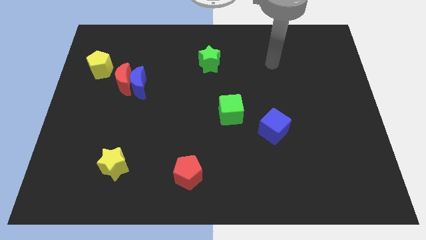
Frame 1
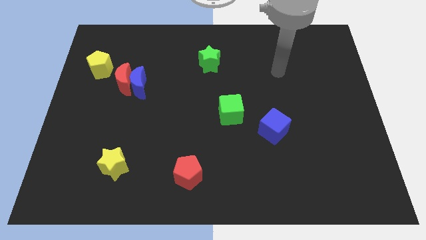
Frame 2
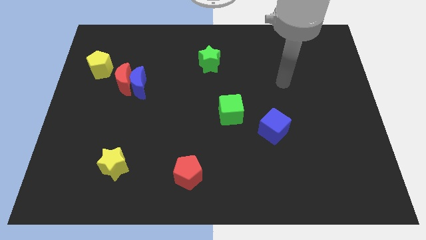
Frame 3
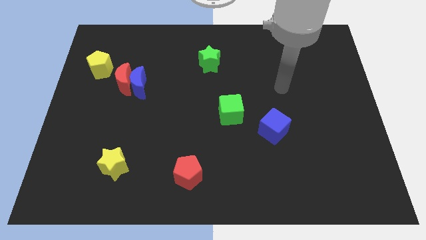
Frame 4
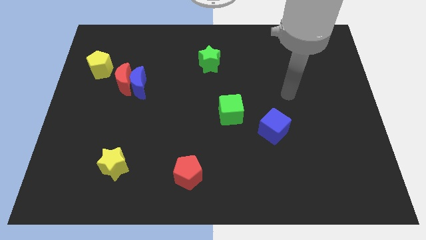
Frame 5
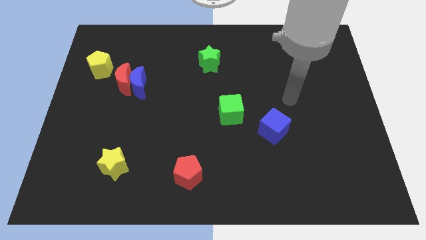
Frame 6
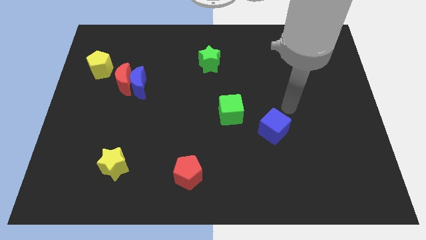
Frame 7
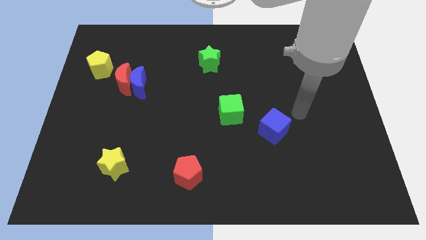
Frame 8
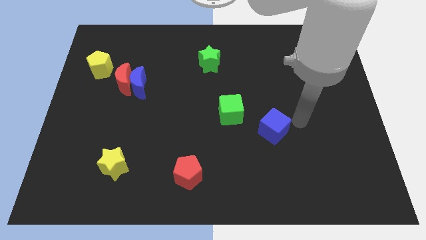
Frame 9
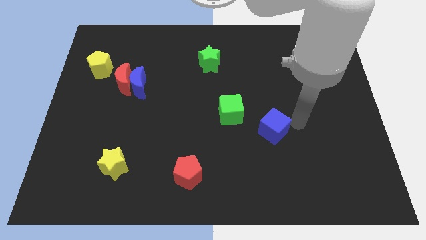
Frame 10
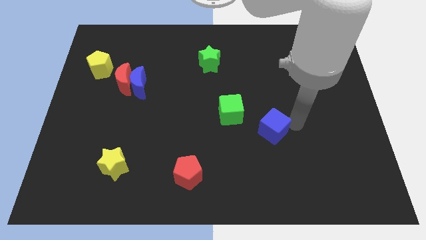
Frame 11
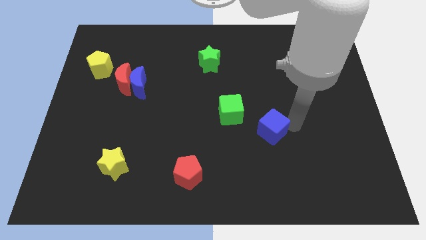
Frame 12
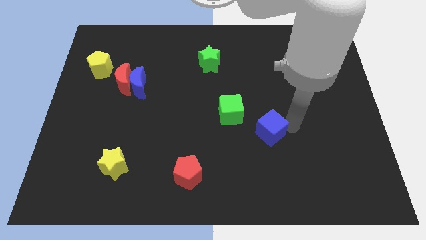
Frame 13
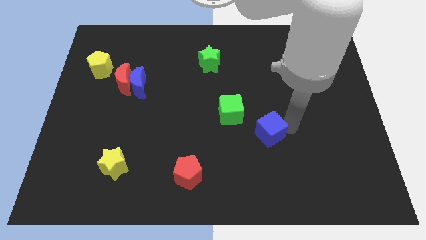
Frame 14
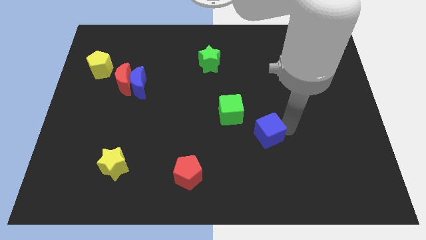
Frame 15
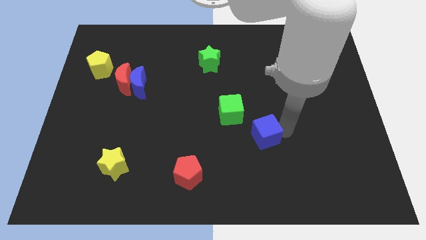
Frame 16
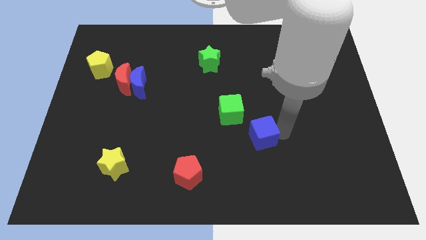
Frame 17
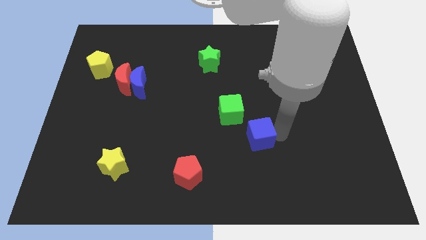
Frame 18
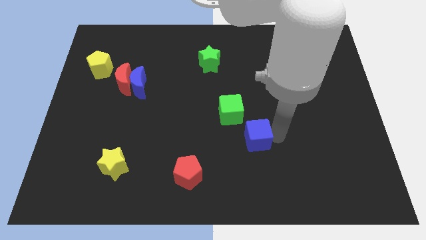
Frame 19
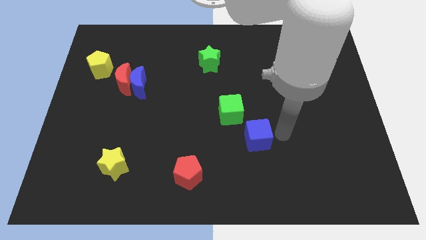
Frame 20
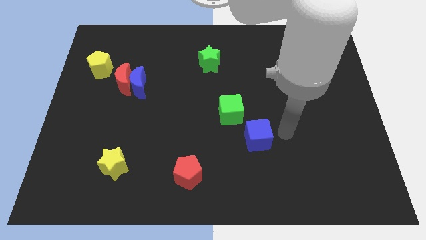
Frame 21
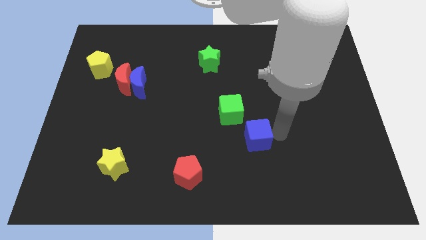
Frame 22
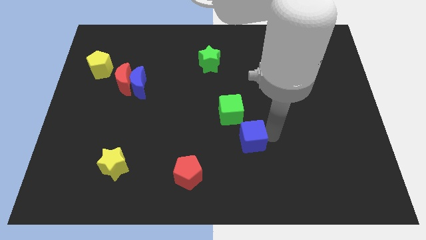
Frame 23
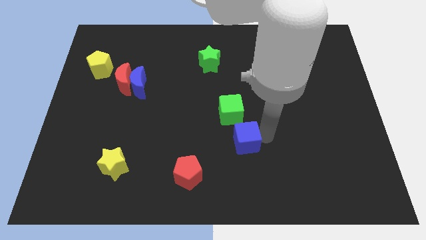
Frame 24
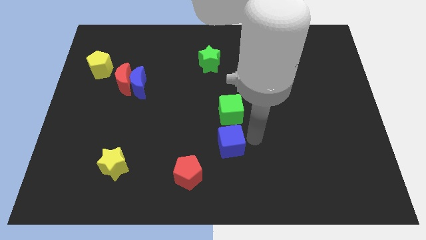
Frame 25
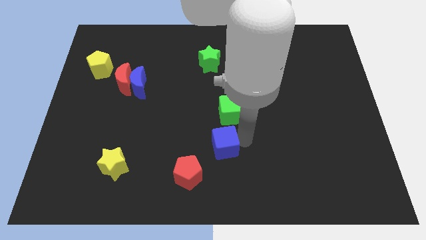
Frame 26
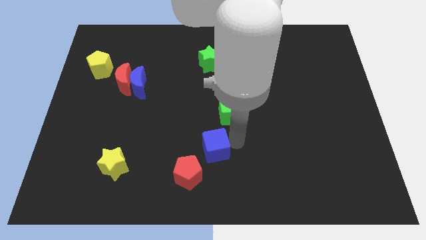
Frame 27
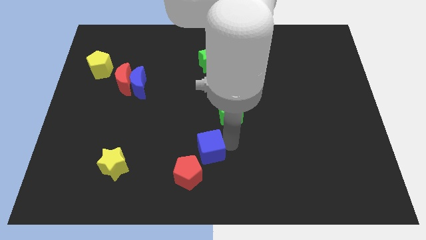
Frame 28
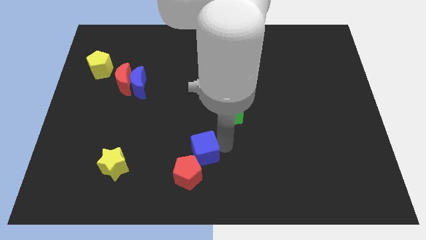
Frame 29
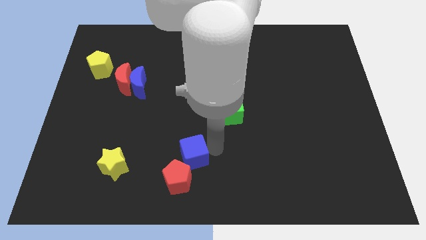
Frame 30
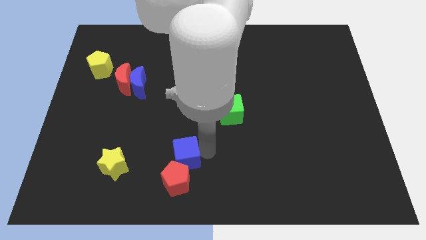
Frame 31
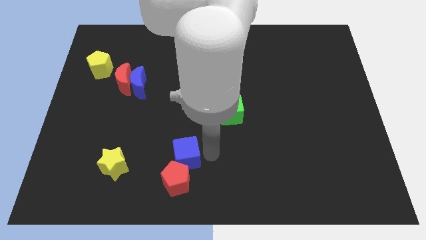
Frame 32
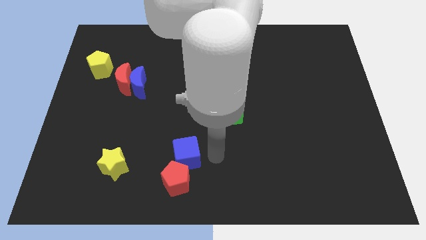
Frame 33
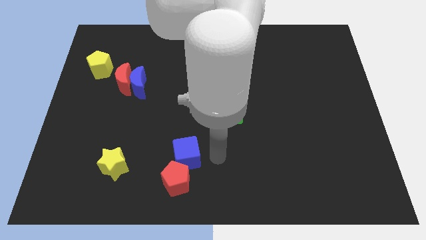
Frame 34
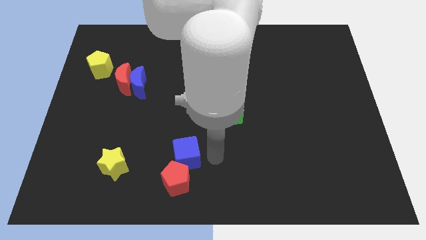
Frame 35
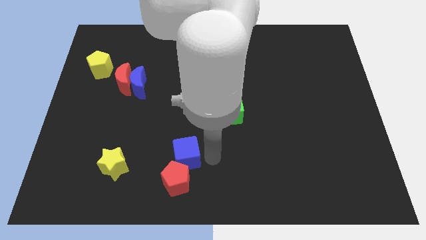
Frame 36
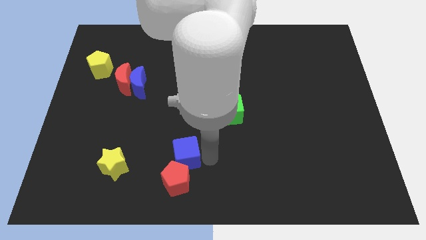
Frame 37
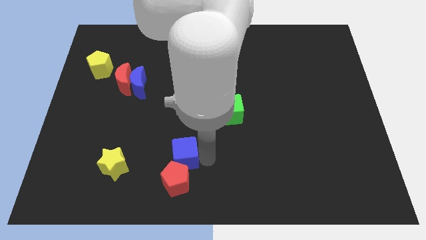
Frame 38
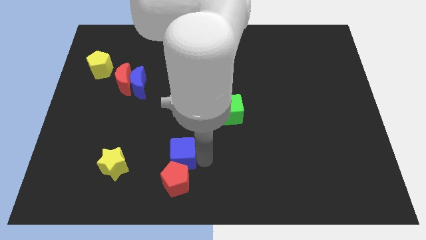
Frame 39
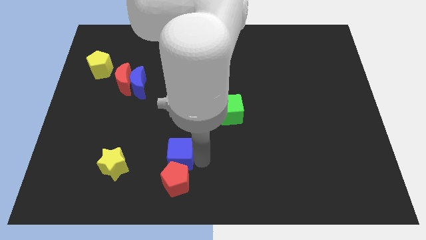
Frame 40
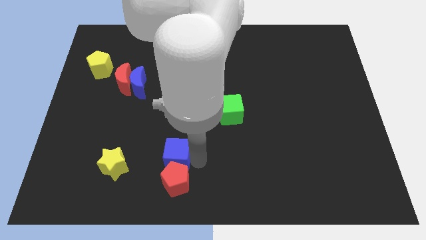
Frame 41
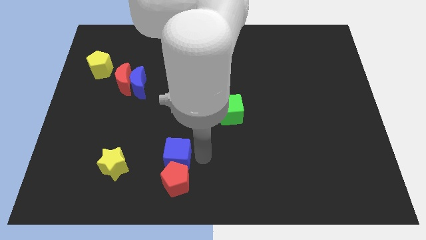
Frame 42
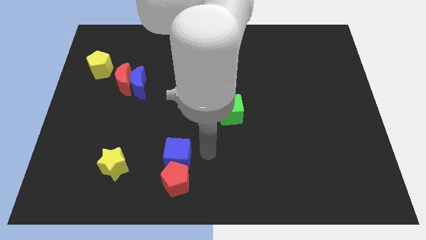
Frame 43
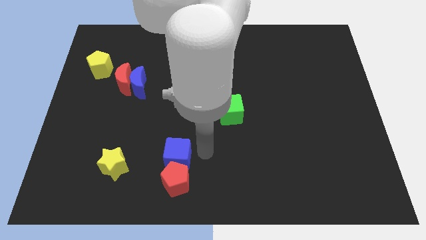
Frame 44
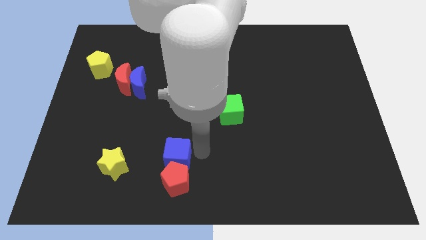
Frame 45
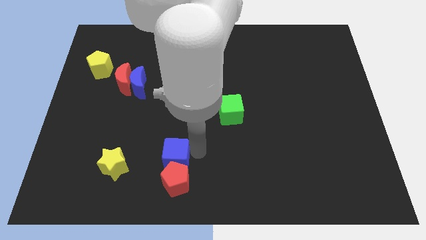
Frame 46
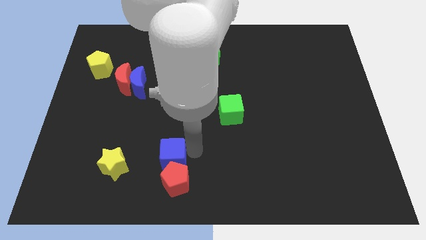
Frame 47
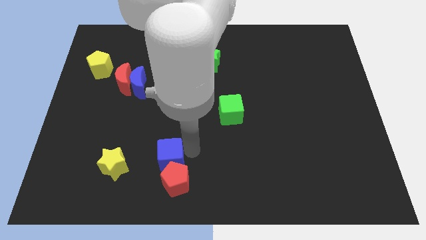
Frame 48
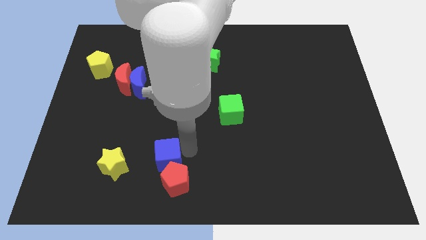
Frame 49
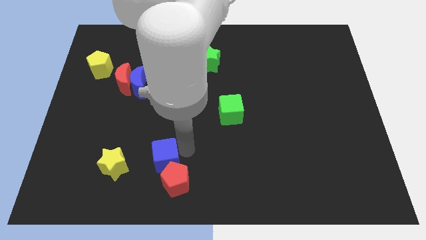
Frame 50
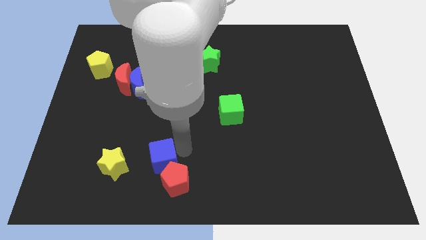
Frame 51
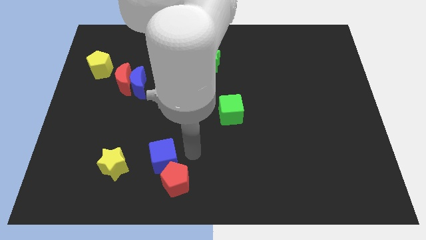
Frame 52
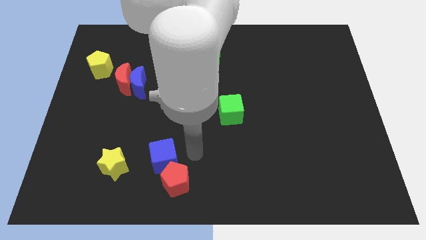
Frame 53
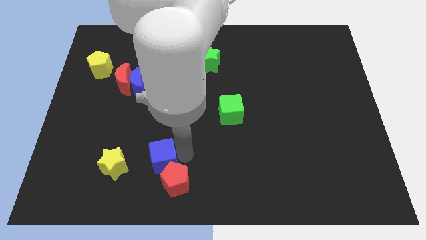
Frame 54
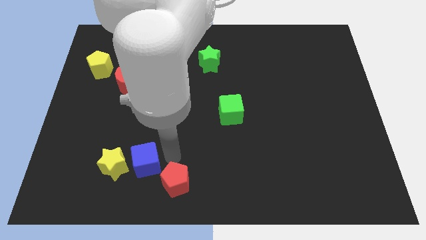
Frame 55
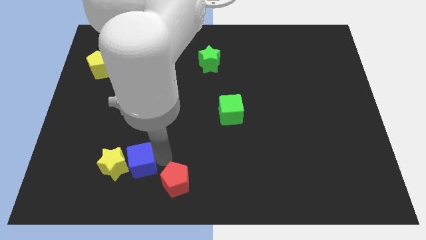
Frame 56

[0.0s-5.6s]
move the blue cube close to the yellow star

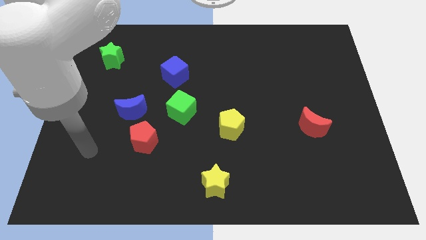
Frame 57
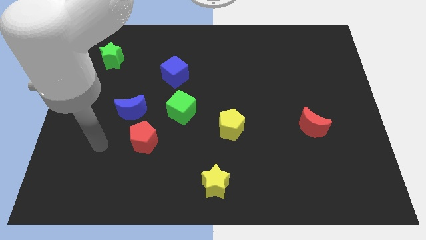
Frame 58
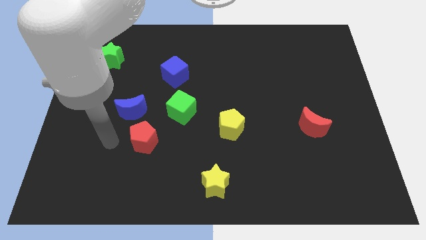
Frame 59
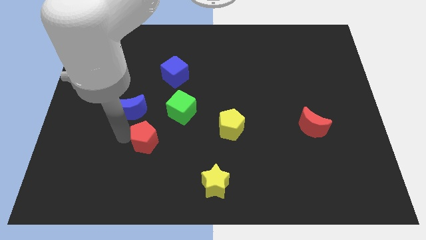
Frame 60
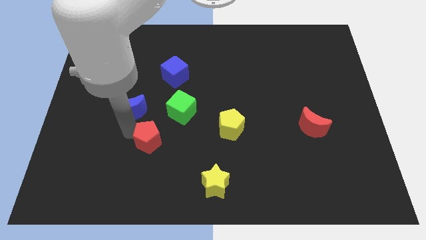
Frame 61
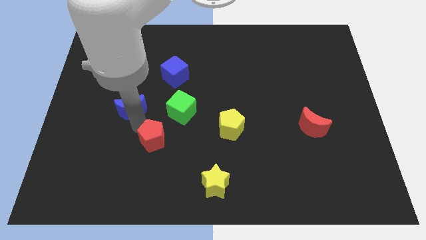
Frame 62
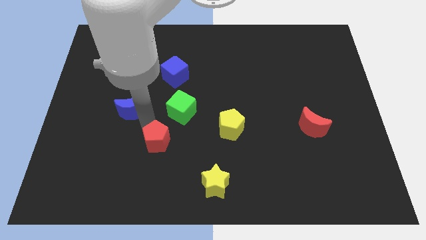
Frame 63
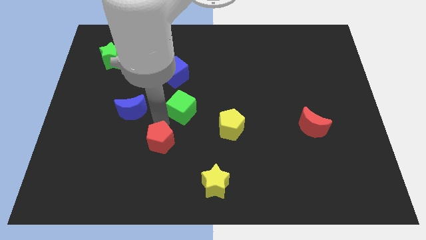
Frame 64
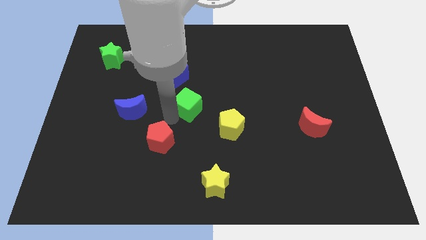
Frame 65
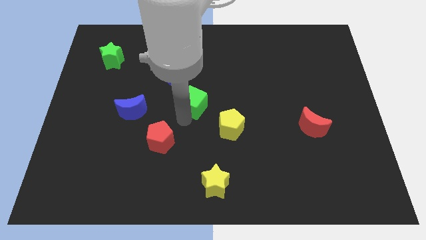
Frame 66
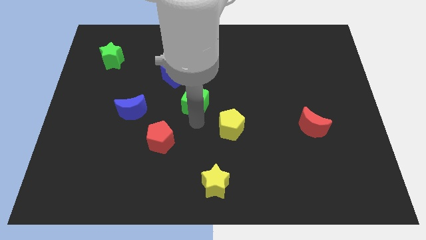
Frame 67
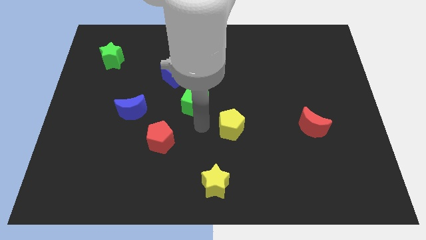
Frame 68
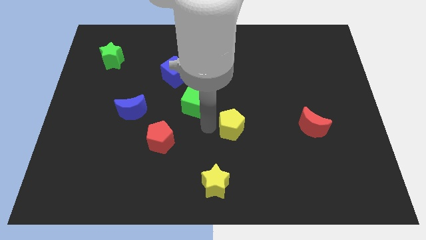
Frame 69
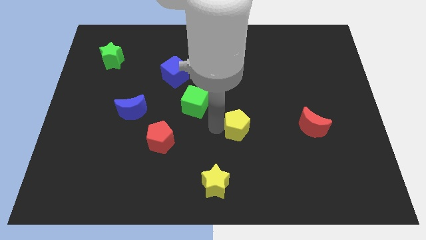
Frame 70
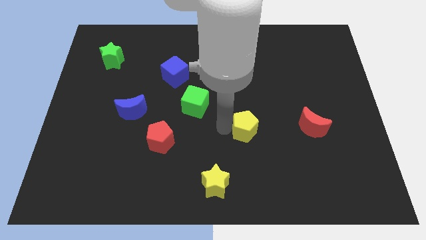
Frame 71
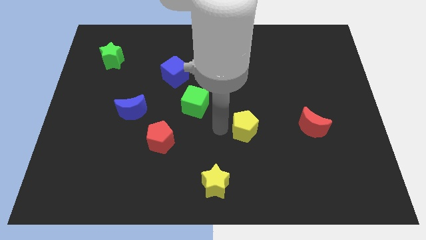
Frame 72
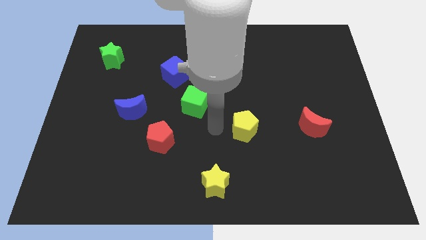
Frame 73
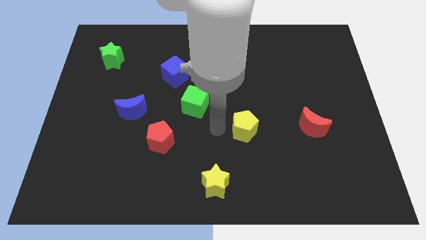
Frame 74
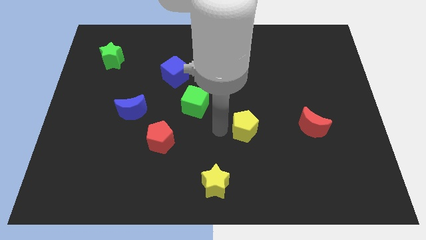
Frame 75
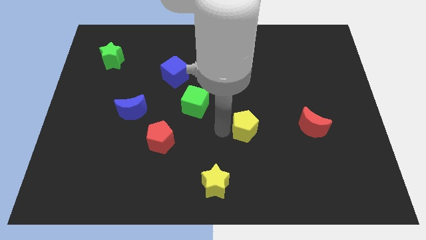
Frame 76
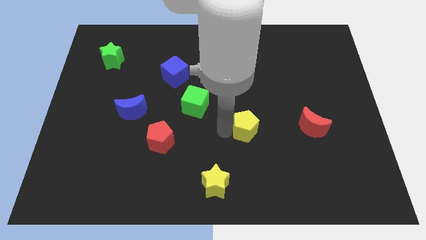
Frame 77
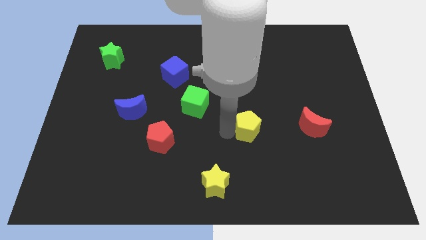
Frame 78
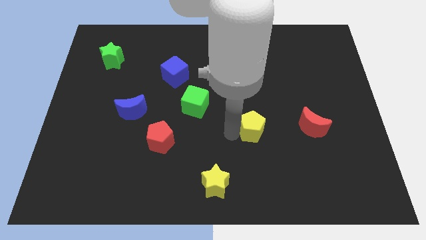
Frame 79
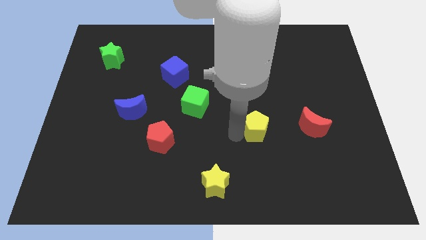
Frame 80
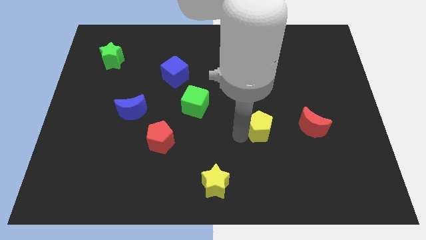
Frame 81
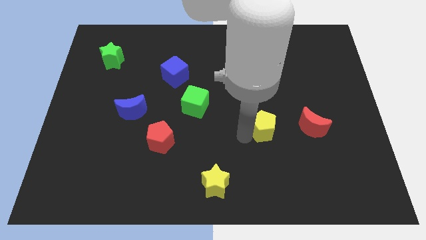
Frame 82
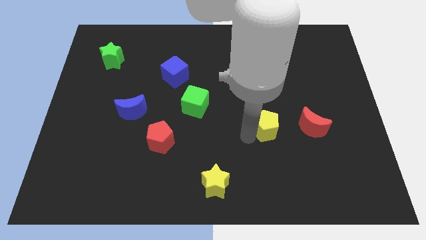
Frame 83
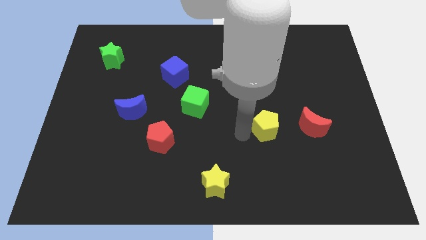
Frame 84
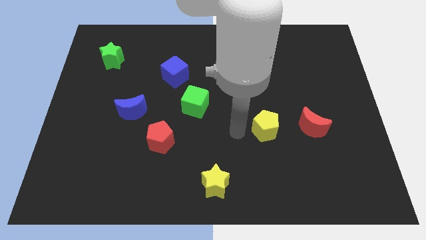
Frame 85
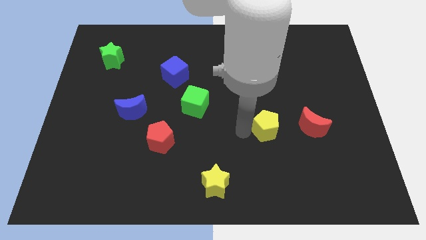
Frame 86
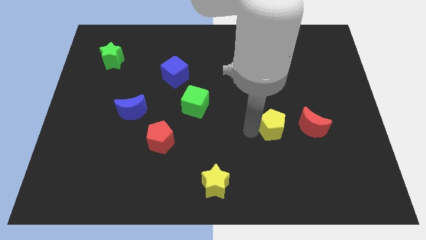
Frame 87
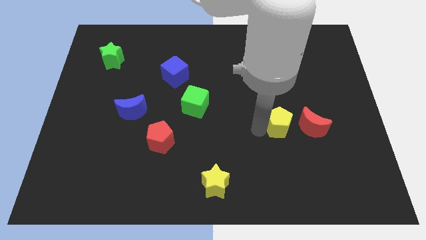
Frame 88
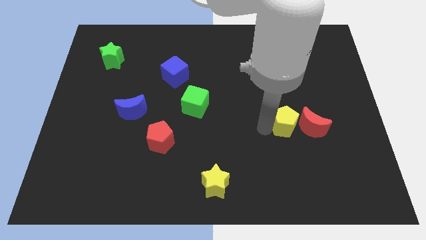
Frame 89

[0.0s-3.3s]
move the yellow pentagon to the red moon
